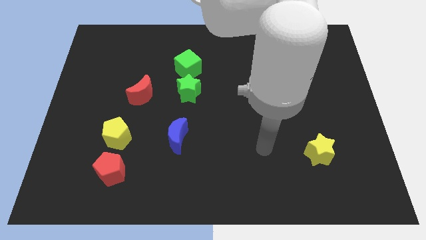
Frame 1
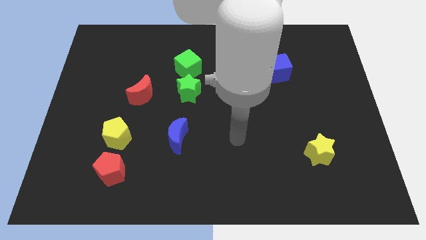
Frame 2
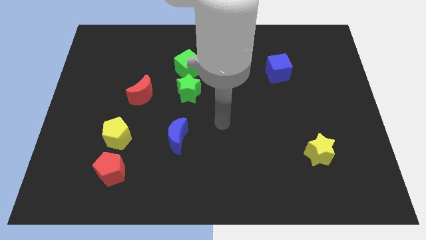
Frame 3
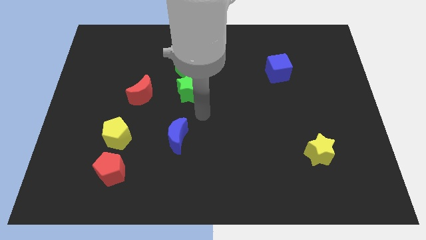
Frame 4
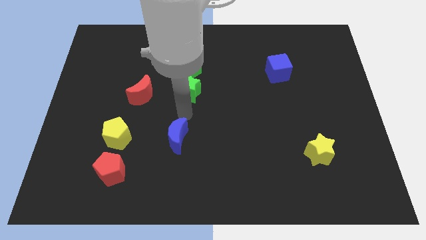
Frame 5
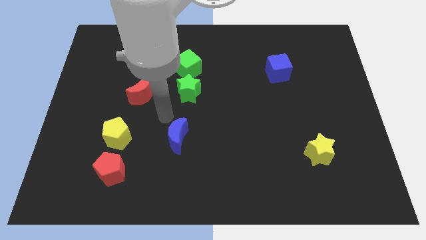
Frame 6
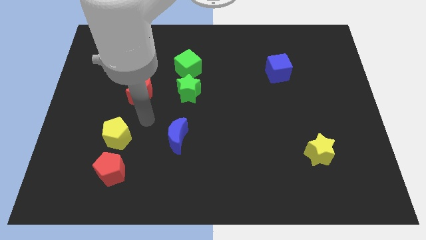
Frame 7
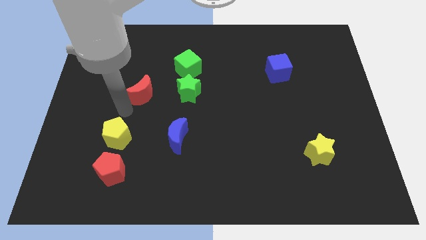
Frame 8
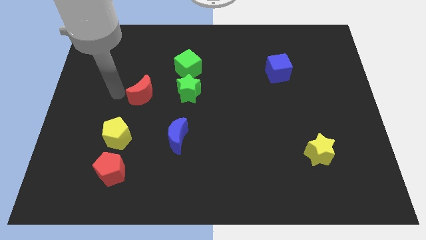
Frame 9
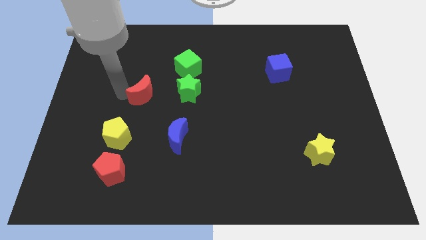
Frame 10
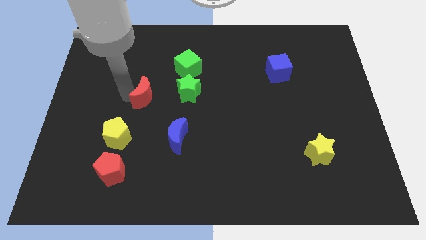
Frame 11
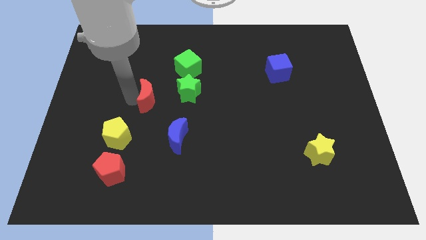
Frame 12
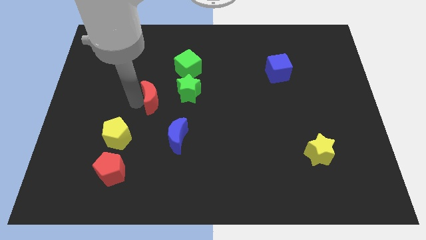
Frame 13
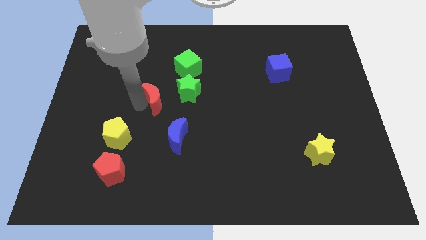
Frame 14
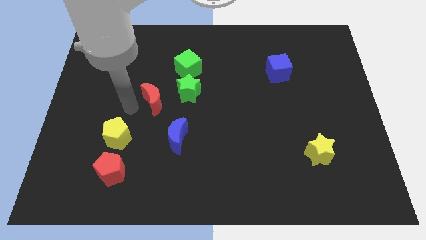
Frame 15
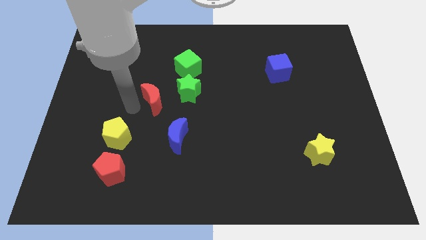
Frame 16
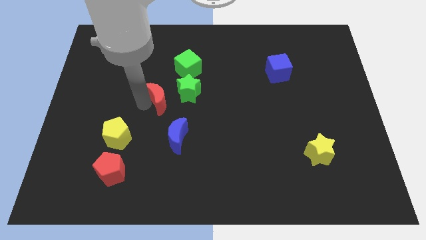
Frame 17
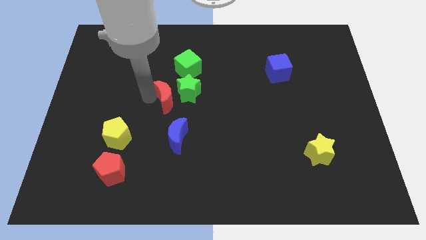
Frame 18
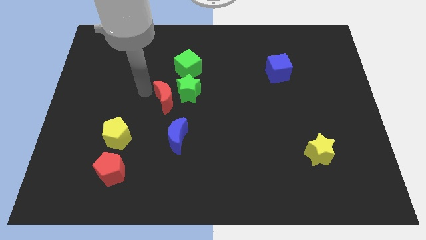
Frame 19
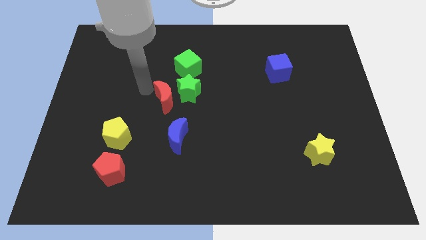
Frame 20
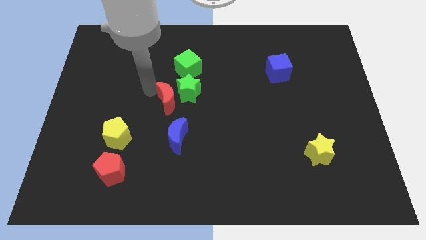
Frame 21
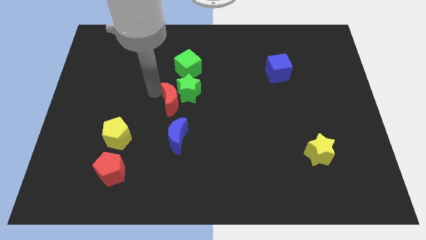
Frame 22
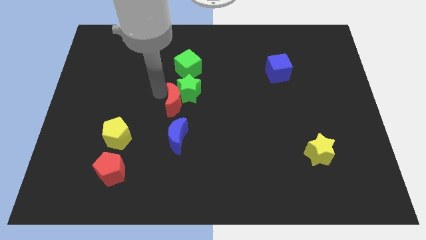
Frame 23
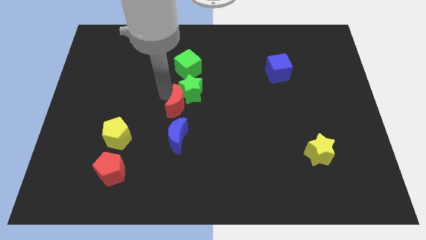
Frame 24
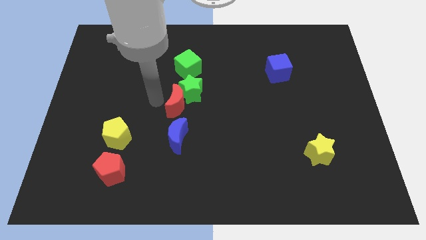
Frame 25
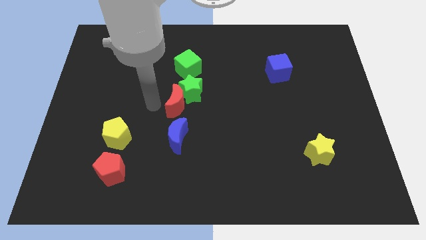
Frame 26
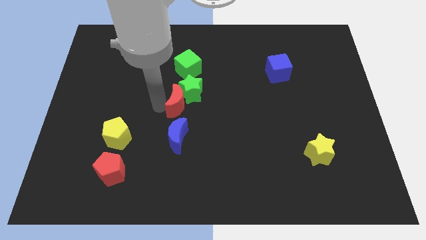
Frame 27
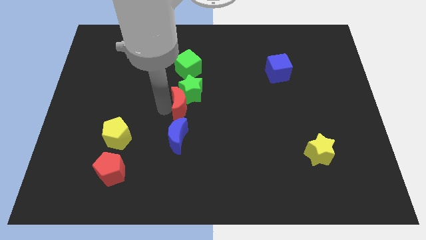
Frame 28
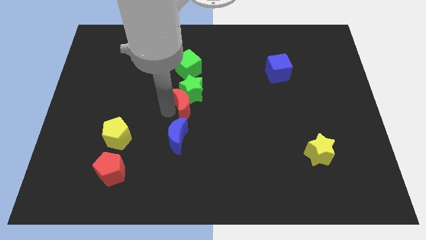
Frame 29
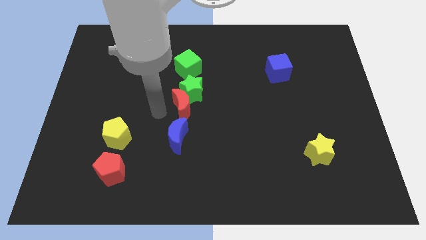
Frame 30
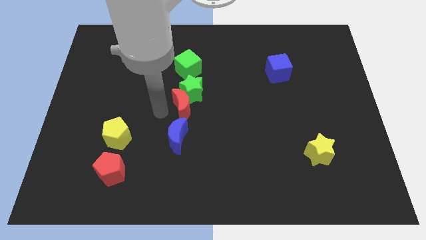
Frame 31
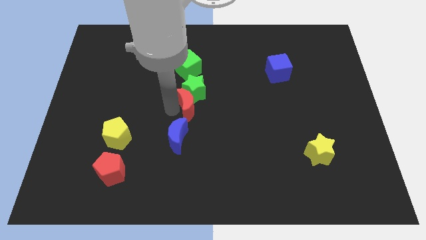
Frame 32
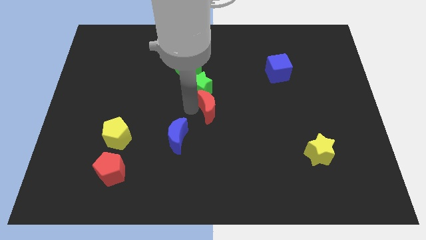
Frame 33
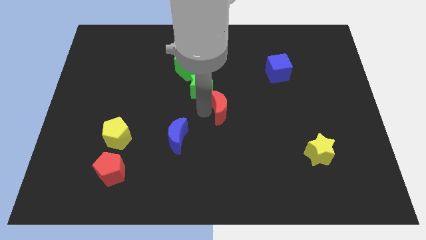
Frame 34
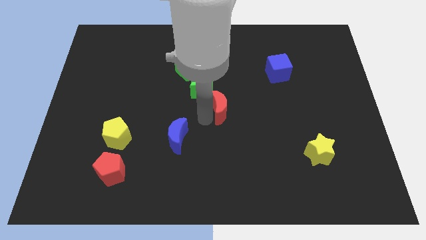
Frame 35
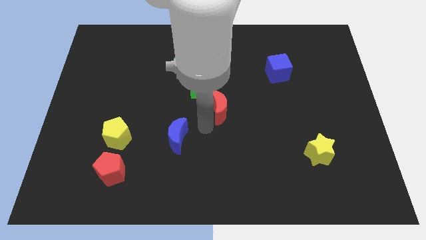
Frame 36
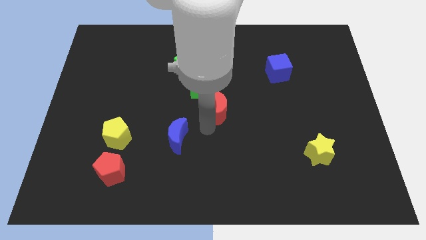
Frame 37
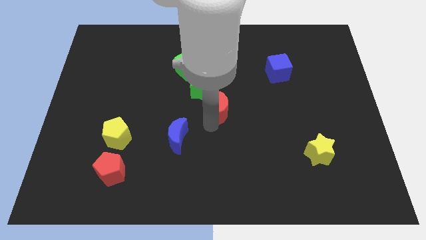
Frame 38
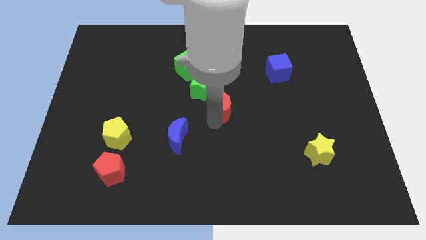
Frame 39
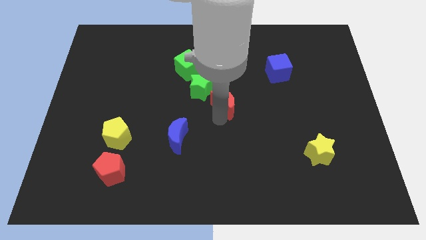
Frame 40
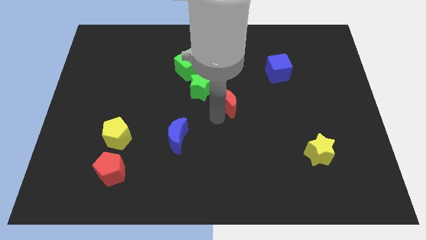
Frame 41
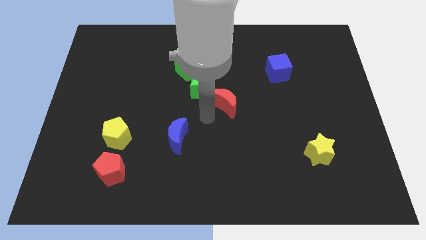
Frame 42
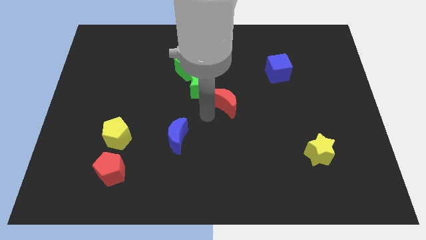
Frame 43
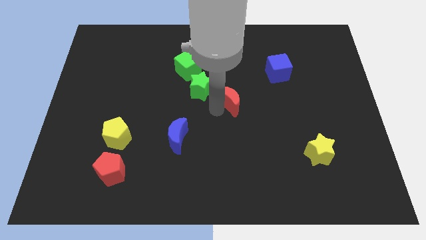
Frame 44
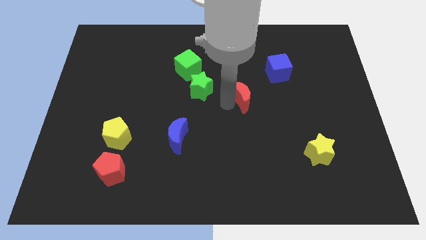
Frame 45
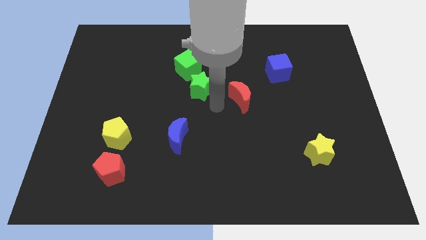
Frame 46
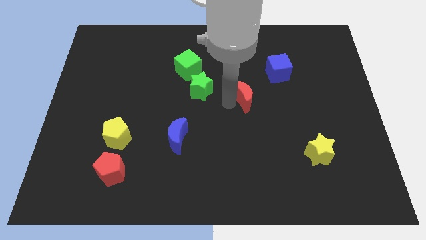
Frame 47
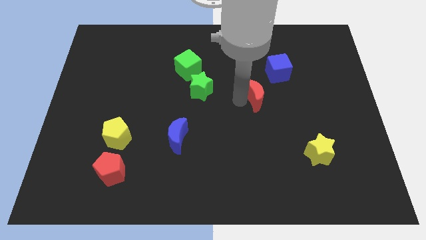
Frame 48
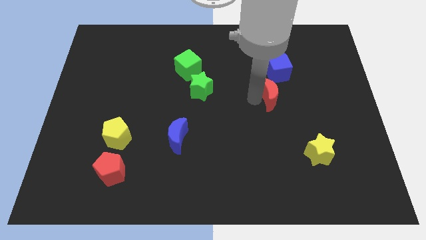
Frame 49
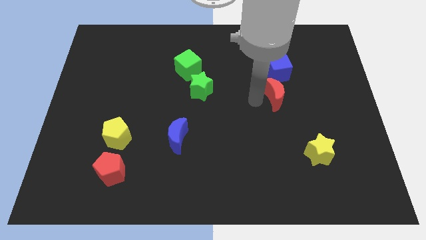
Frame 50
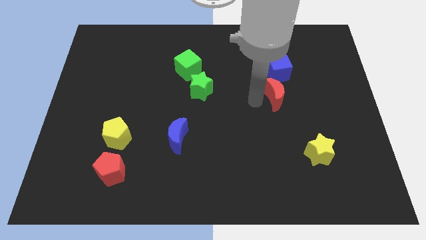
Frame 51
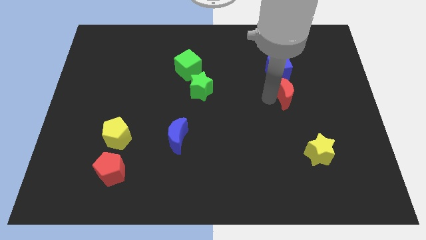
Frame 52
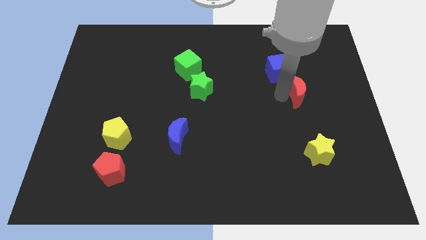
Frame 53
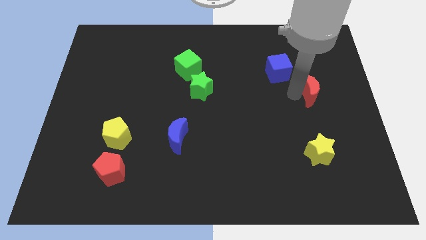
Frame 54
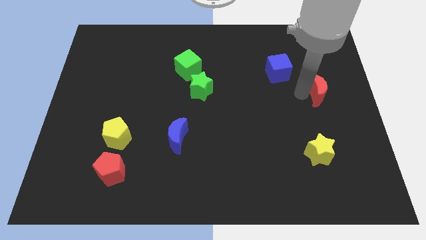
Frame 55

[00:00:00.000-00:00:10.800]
slide the red moon to the right side of the board

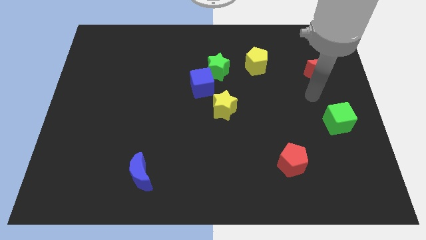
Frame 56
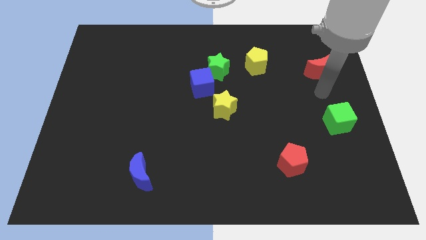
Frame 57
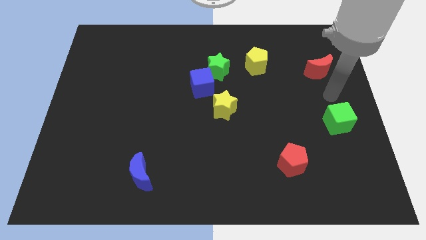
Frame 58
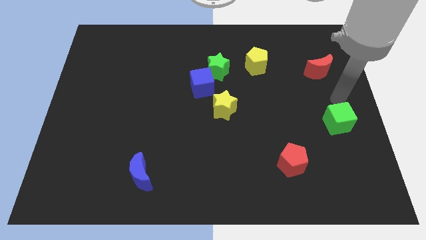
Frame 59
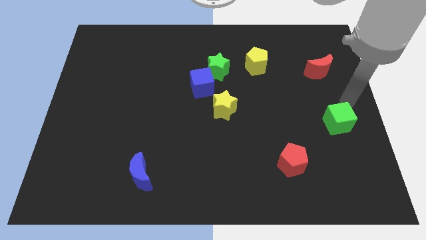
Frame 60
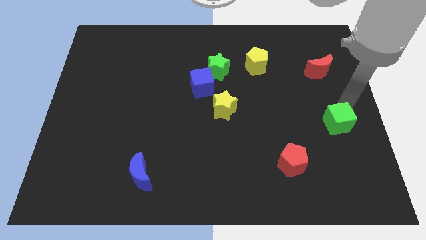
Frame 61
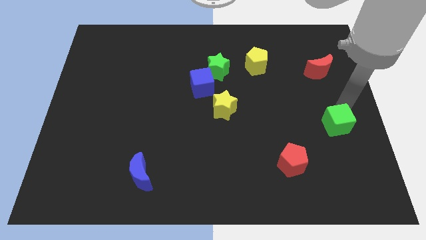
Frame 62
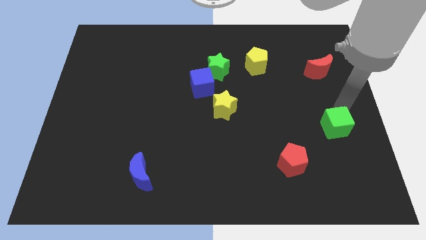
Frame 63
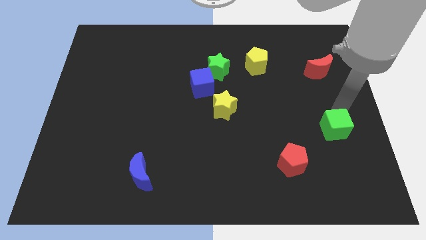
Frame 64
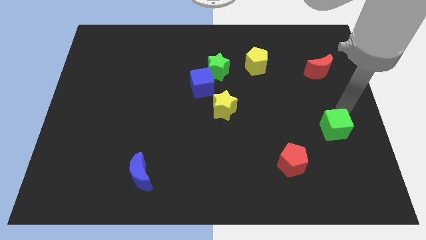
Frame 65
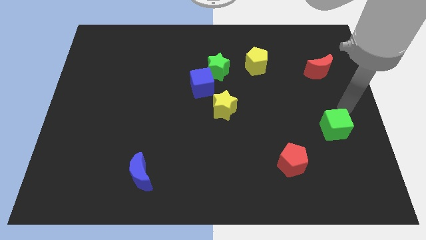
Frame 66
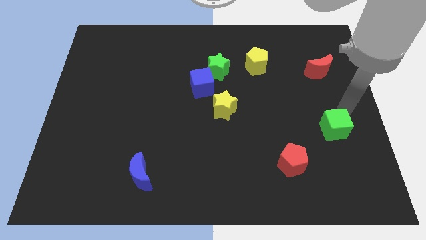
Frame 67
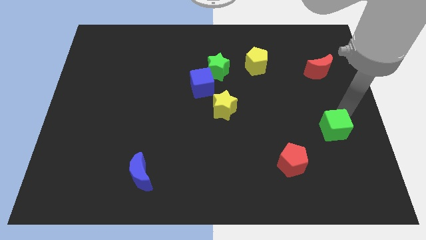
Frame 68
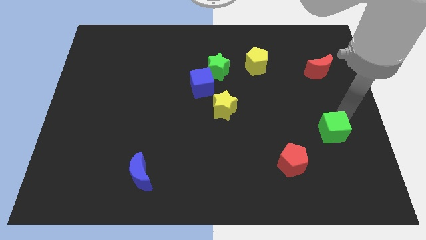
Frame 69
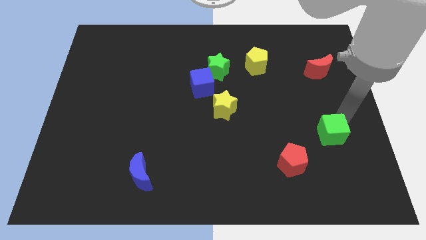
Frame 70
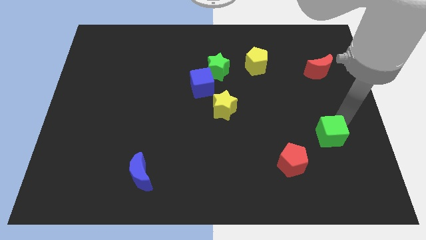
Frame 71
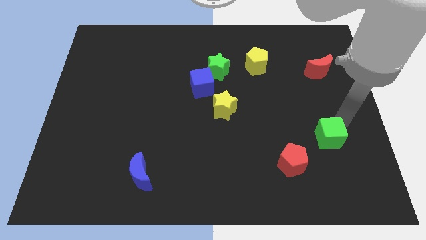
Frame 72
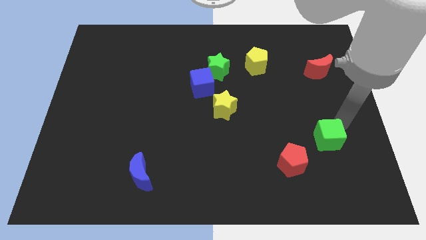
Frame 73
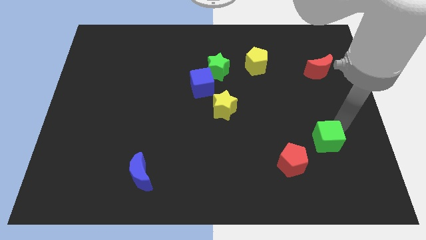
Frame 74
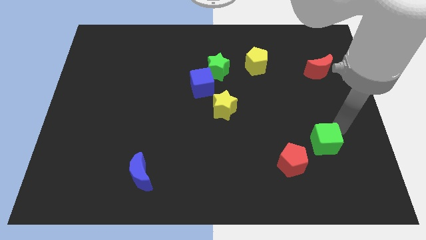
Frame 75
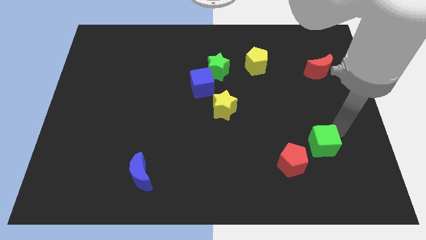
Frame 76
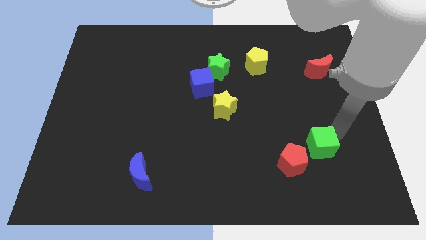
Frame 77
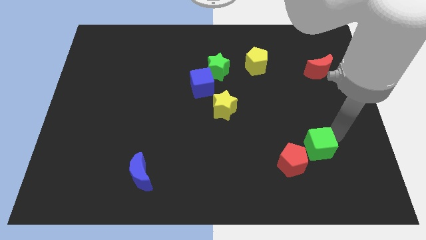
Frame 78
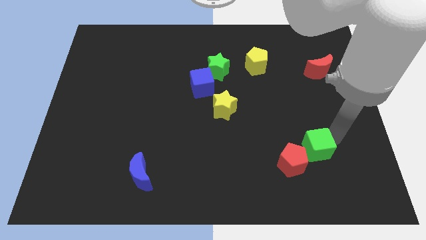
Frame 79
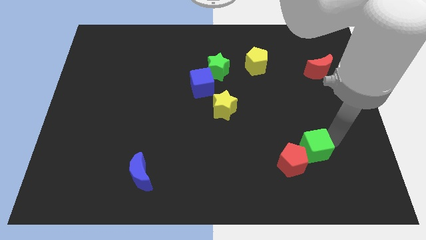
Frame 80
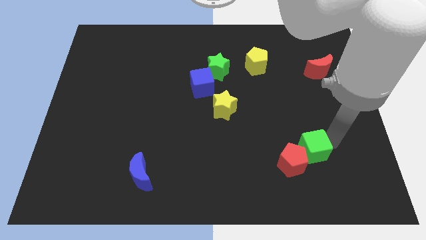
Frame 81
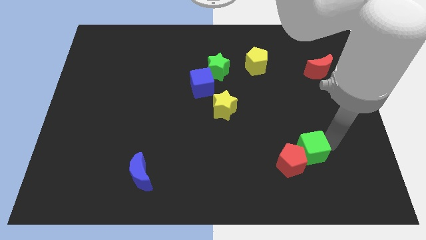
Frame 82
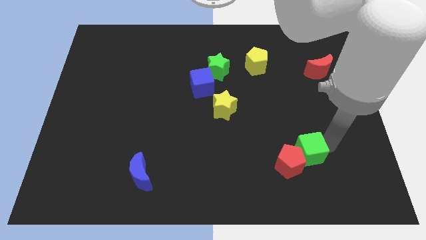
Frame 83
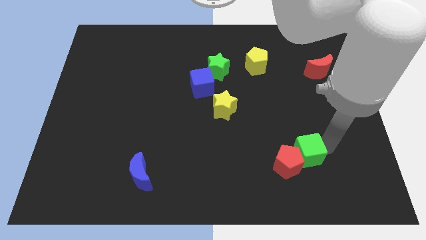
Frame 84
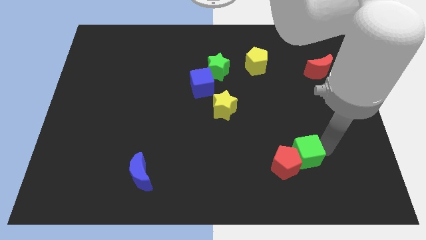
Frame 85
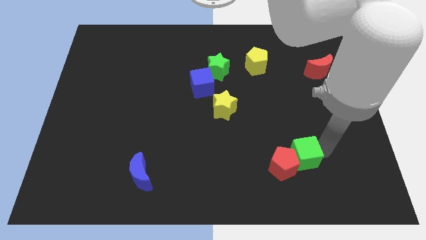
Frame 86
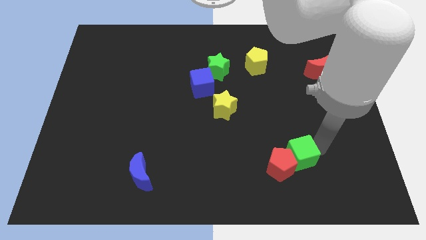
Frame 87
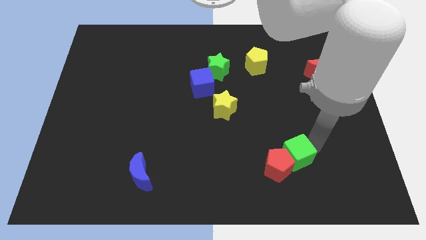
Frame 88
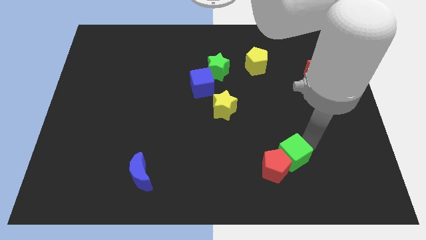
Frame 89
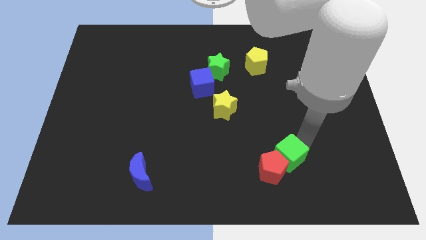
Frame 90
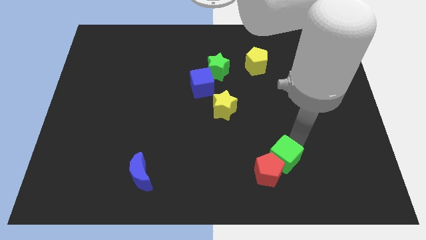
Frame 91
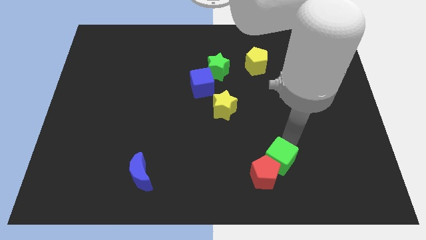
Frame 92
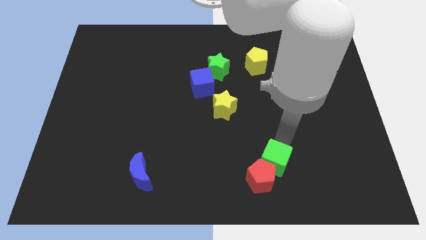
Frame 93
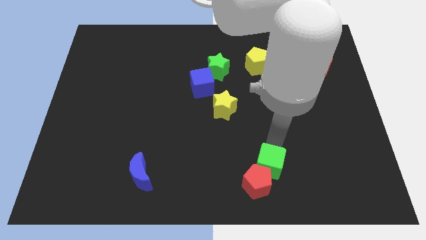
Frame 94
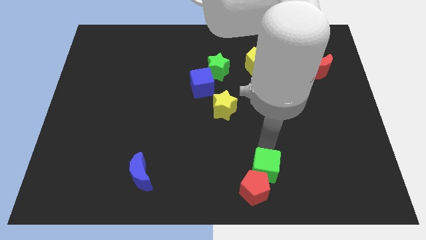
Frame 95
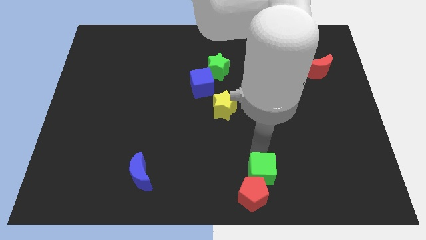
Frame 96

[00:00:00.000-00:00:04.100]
put the green cube to the bottom
